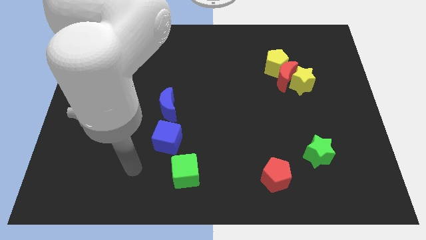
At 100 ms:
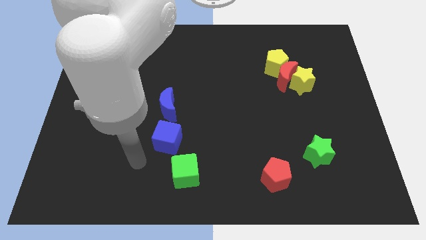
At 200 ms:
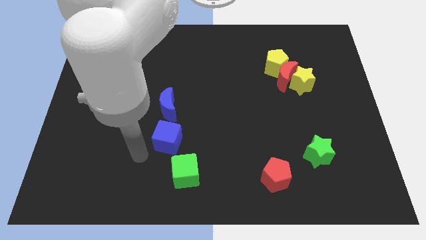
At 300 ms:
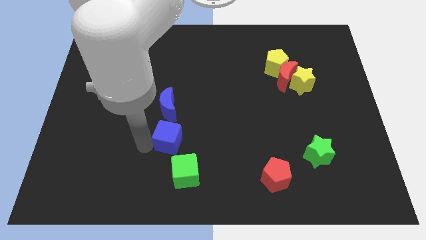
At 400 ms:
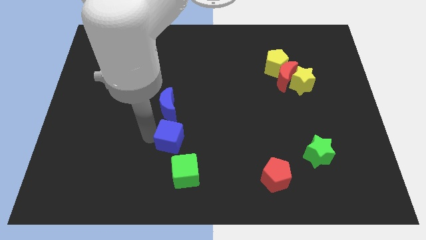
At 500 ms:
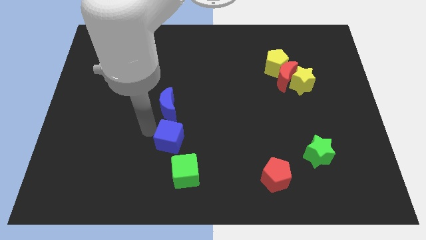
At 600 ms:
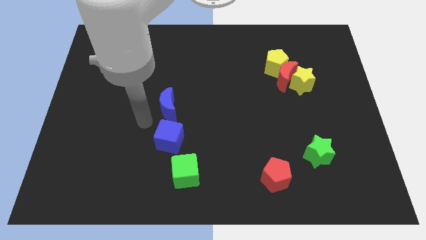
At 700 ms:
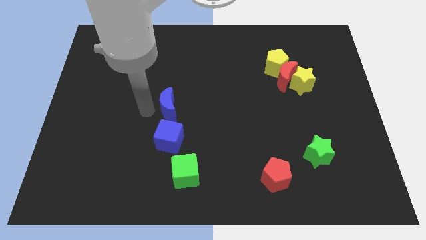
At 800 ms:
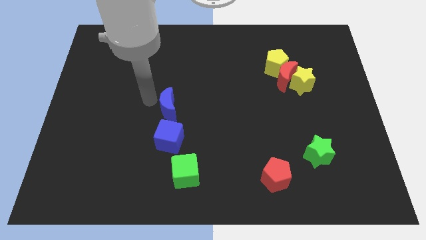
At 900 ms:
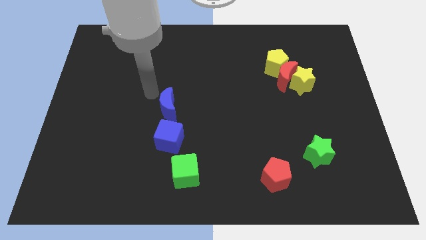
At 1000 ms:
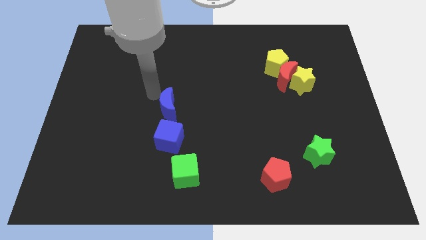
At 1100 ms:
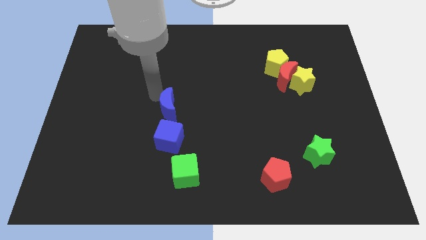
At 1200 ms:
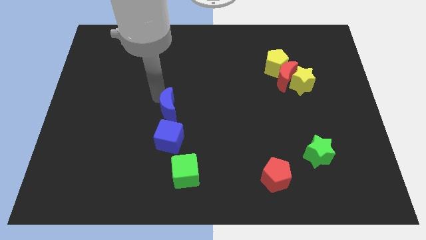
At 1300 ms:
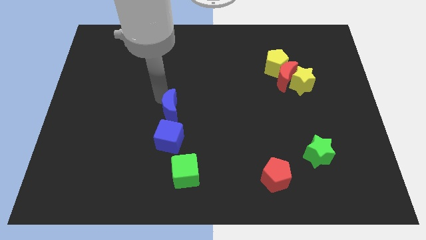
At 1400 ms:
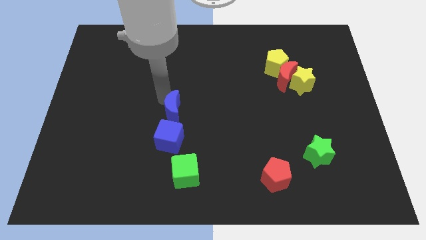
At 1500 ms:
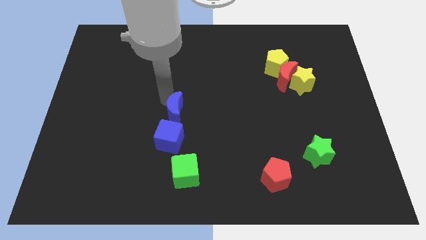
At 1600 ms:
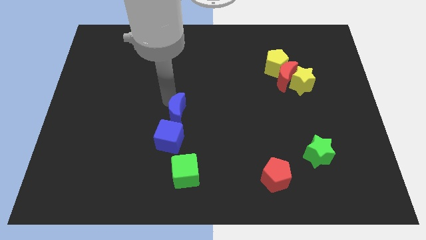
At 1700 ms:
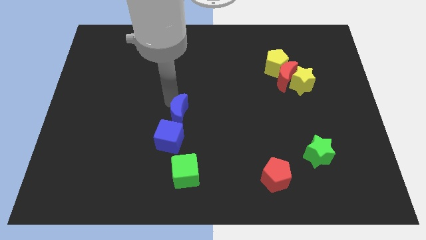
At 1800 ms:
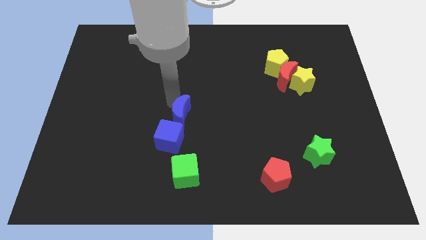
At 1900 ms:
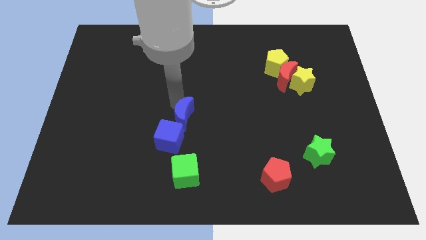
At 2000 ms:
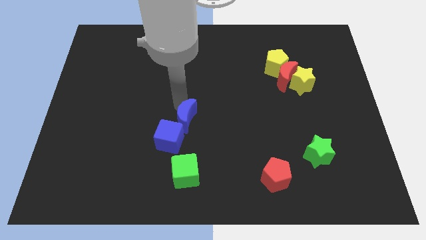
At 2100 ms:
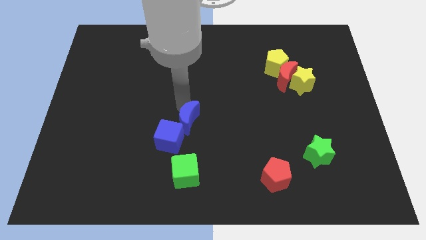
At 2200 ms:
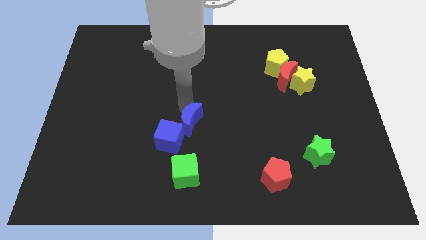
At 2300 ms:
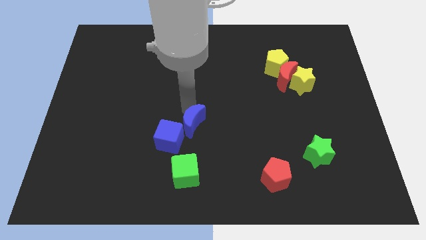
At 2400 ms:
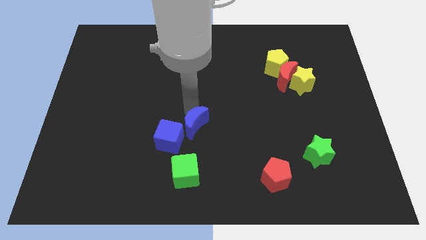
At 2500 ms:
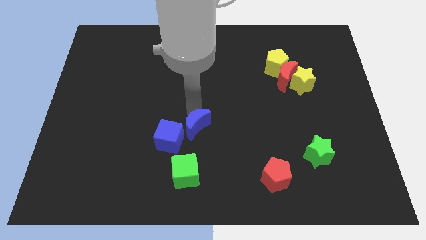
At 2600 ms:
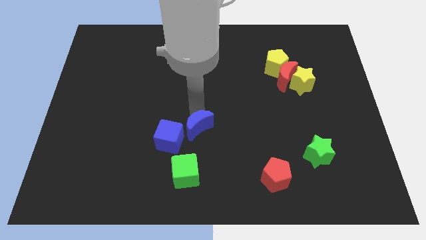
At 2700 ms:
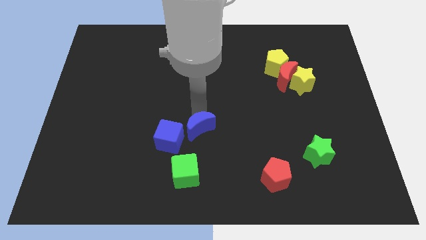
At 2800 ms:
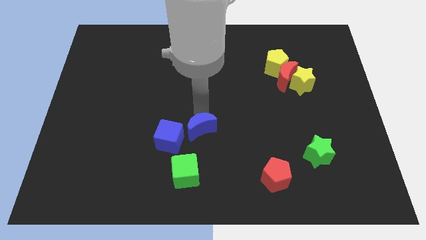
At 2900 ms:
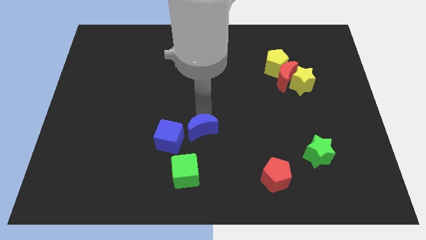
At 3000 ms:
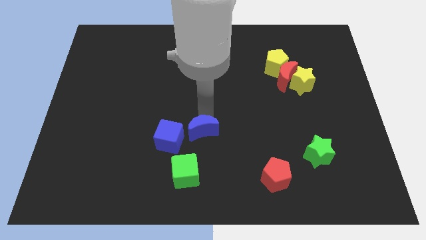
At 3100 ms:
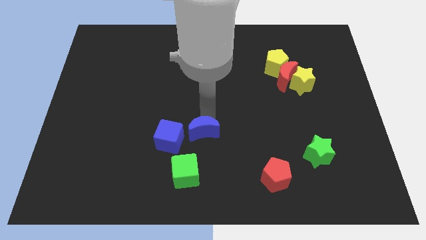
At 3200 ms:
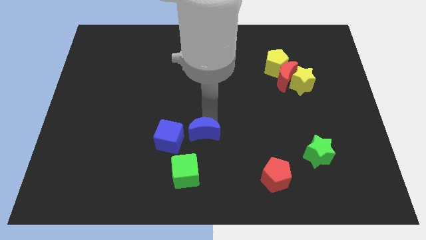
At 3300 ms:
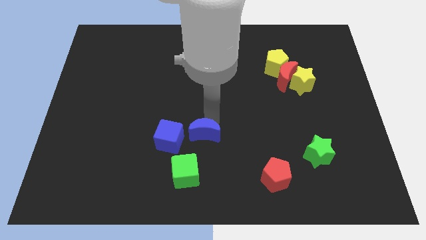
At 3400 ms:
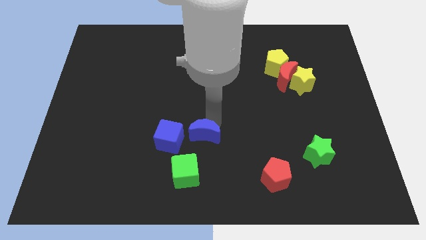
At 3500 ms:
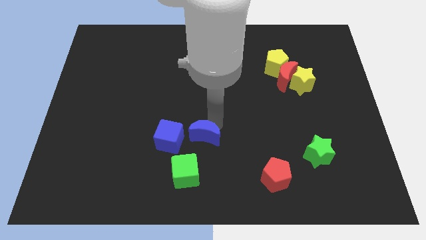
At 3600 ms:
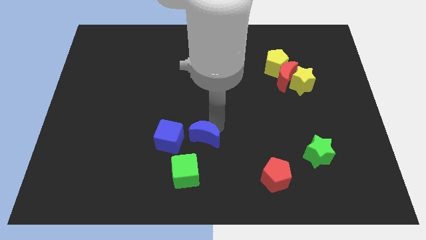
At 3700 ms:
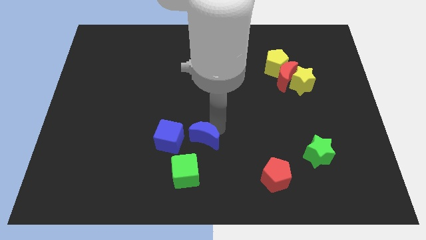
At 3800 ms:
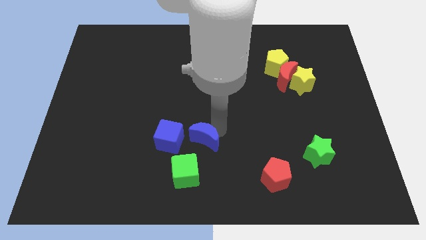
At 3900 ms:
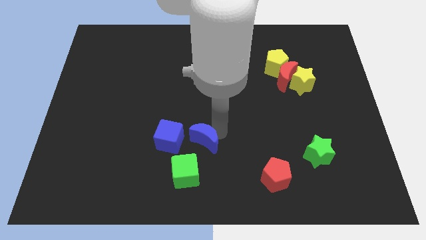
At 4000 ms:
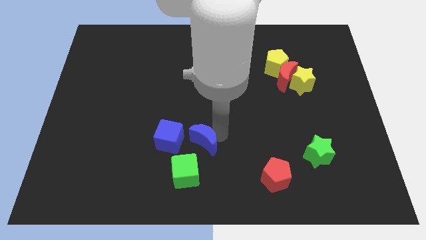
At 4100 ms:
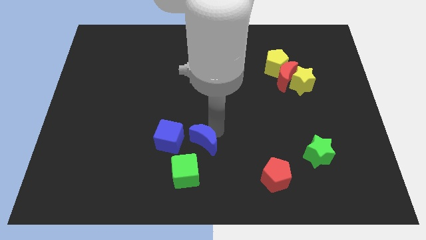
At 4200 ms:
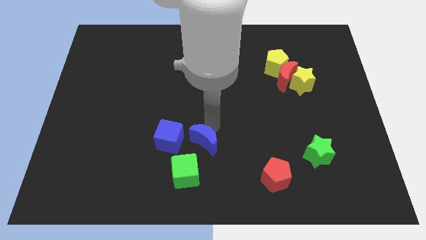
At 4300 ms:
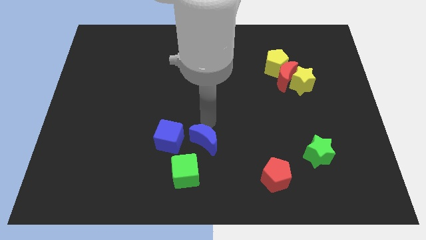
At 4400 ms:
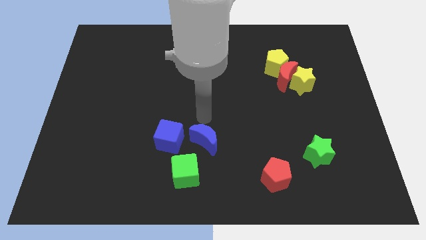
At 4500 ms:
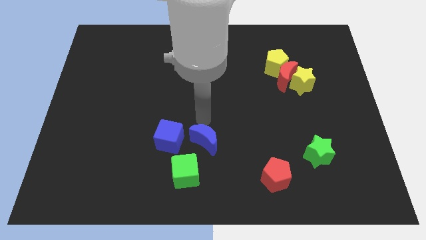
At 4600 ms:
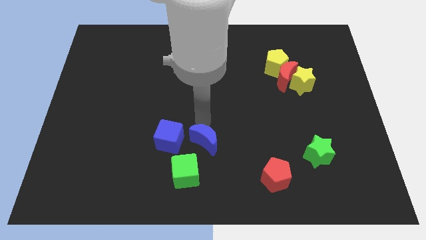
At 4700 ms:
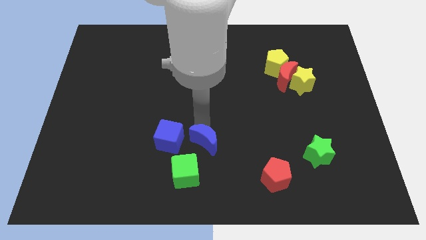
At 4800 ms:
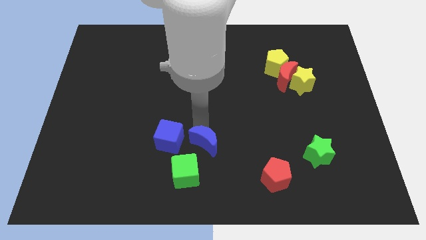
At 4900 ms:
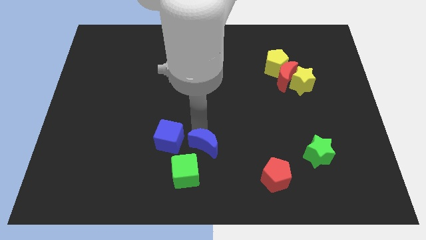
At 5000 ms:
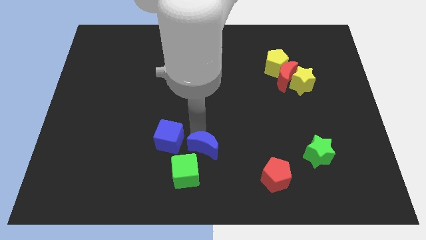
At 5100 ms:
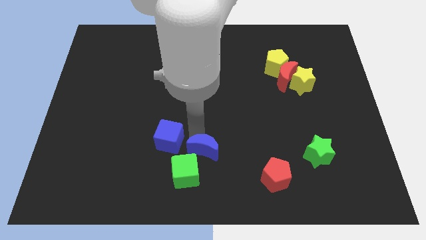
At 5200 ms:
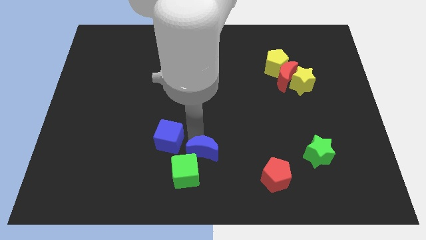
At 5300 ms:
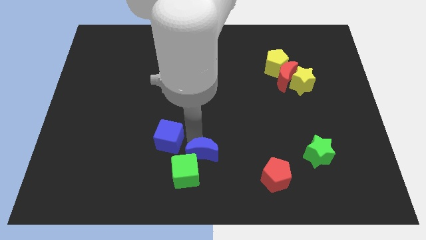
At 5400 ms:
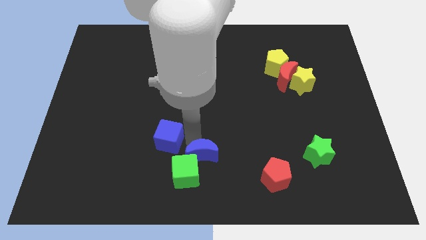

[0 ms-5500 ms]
slide the blue moon to the bottom

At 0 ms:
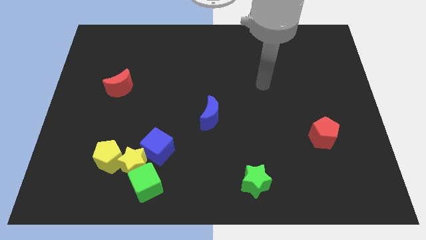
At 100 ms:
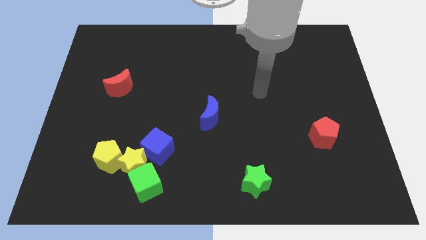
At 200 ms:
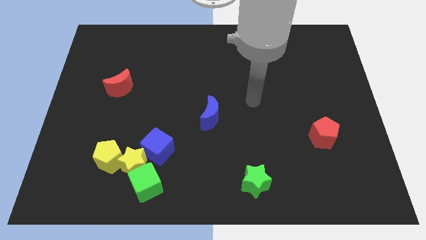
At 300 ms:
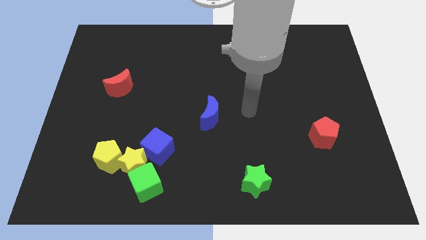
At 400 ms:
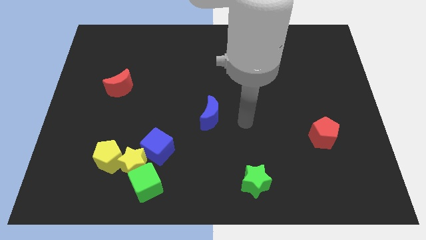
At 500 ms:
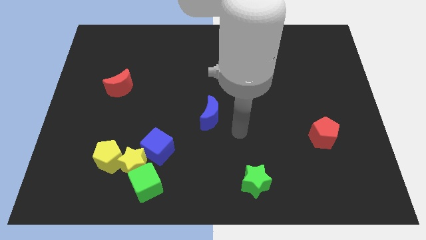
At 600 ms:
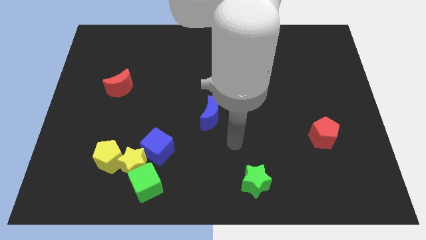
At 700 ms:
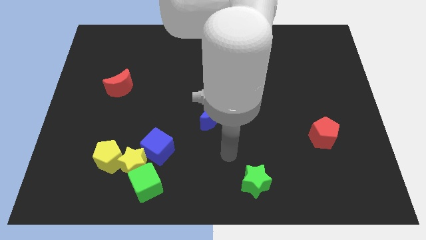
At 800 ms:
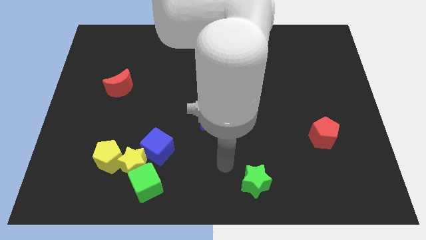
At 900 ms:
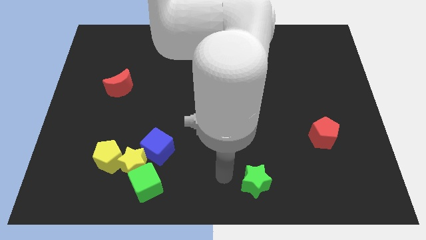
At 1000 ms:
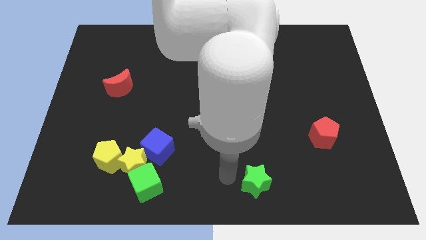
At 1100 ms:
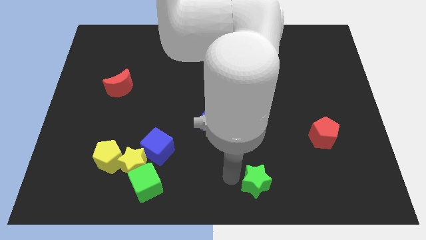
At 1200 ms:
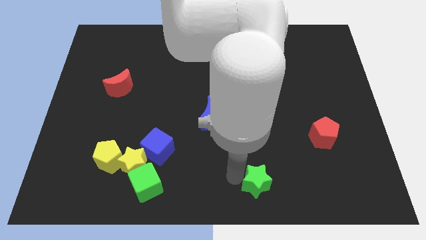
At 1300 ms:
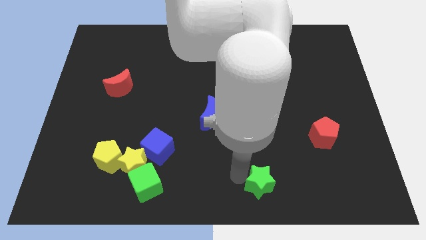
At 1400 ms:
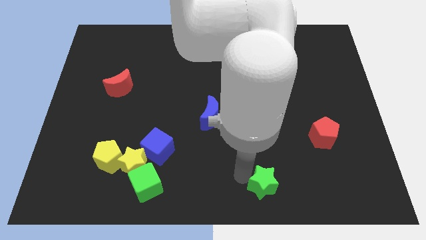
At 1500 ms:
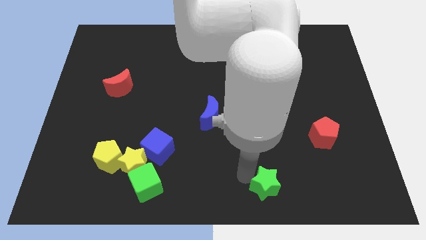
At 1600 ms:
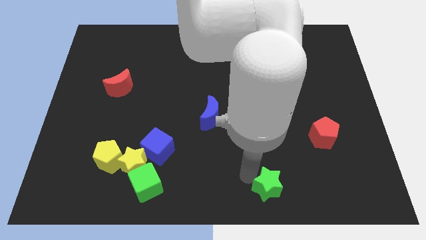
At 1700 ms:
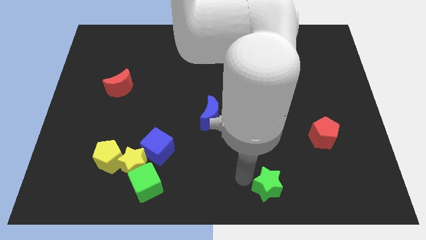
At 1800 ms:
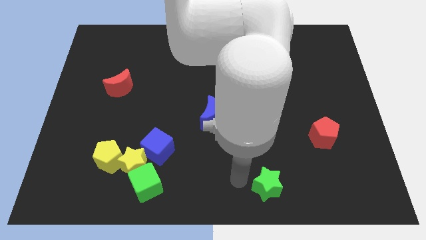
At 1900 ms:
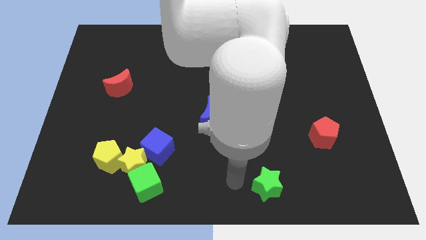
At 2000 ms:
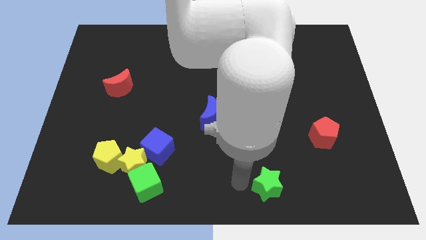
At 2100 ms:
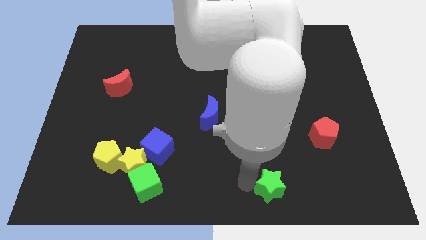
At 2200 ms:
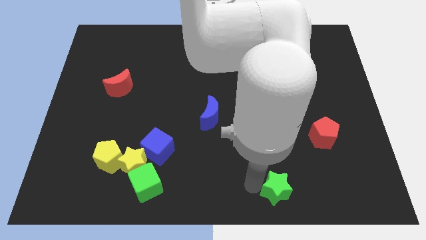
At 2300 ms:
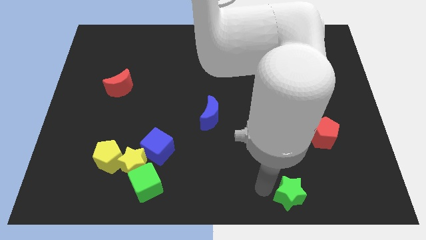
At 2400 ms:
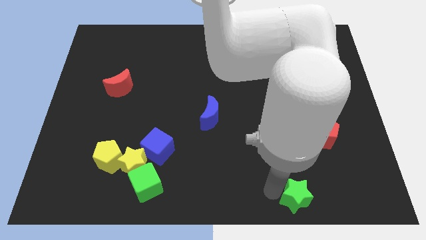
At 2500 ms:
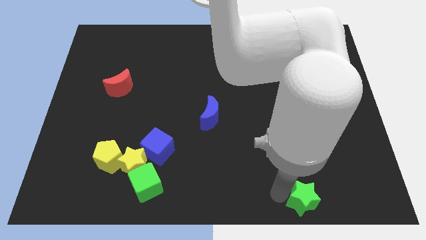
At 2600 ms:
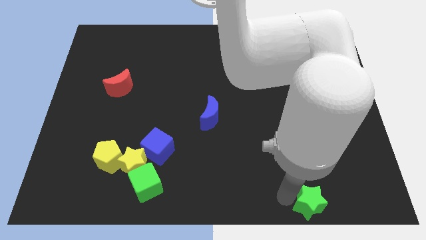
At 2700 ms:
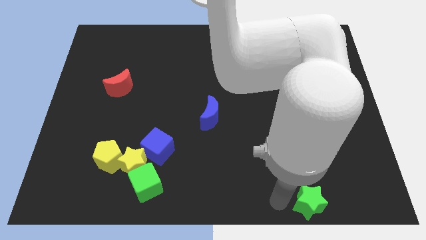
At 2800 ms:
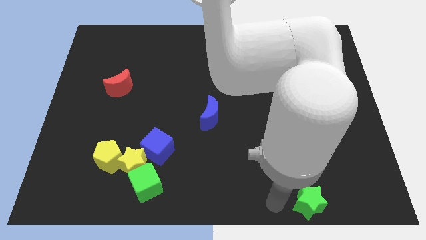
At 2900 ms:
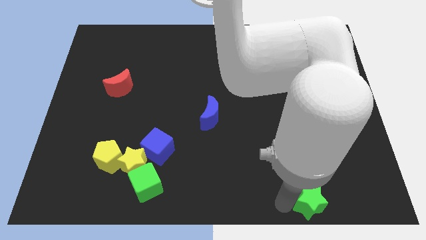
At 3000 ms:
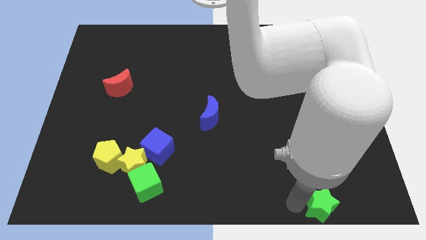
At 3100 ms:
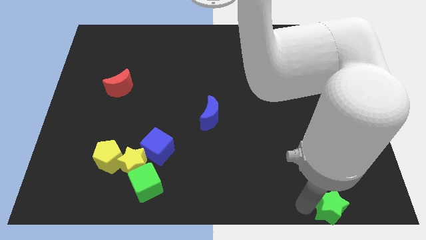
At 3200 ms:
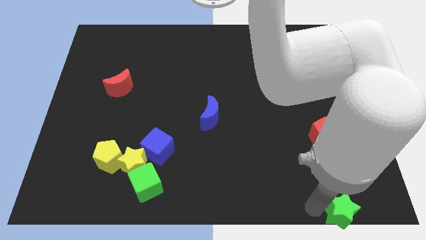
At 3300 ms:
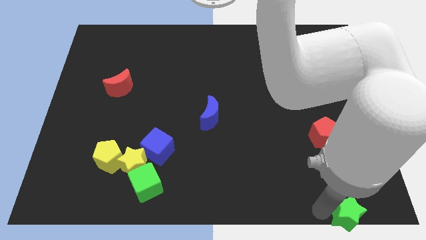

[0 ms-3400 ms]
push the green star to the bottom right
